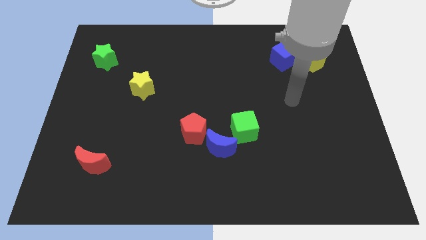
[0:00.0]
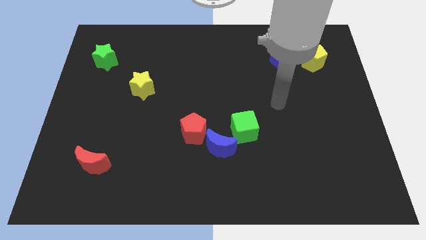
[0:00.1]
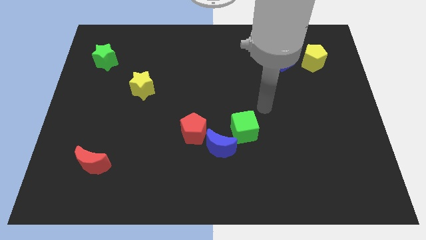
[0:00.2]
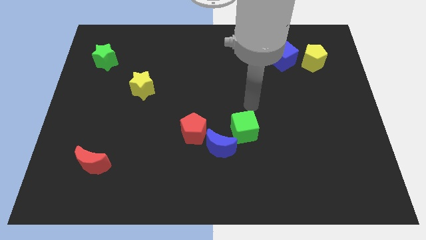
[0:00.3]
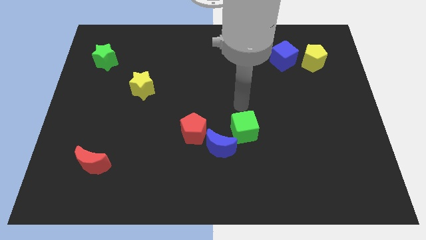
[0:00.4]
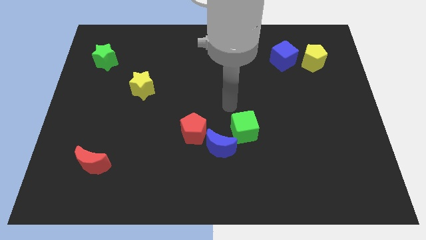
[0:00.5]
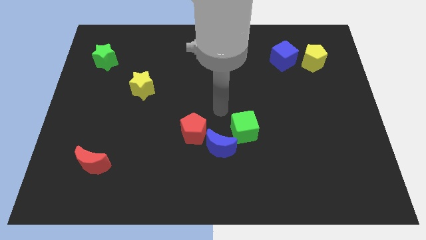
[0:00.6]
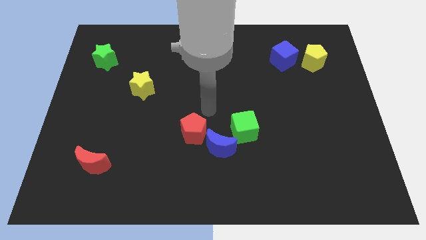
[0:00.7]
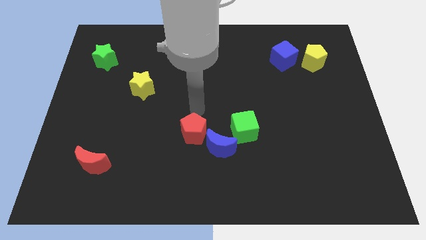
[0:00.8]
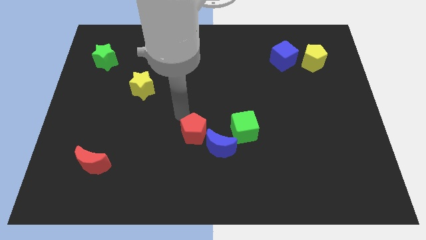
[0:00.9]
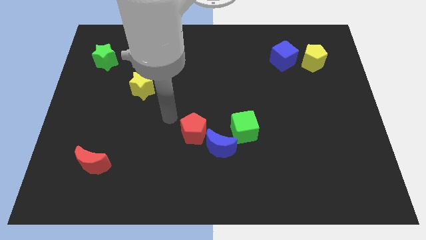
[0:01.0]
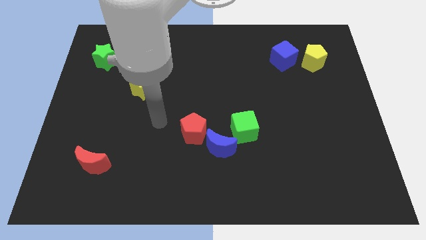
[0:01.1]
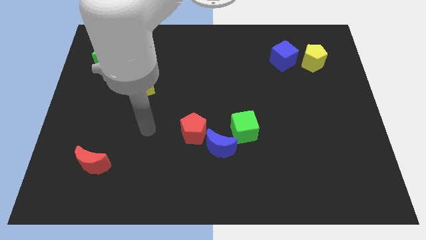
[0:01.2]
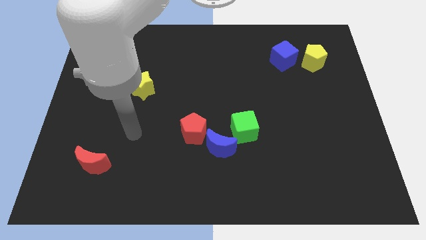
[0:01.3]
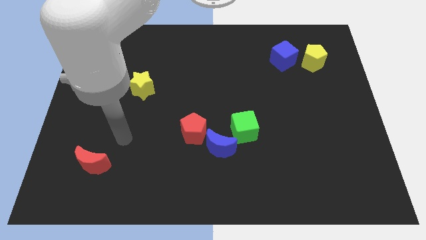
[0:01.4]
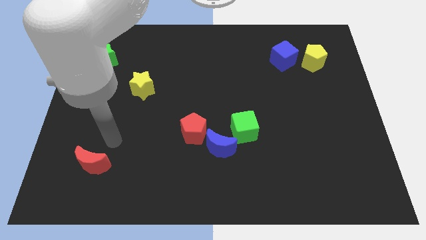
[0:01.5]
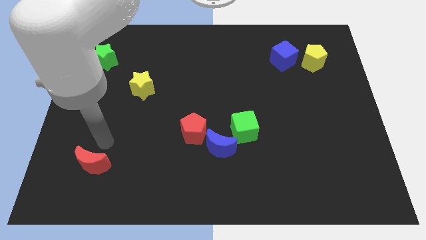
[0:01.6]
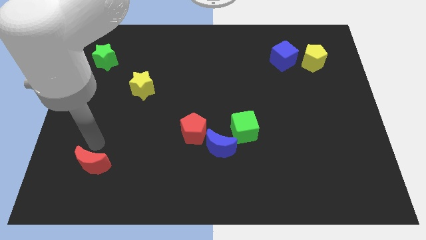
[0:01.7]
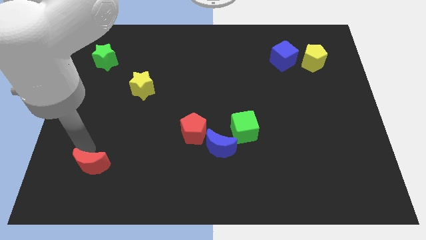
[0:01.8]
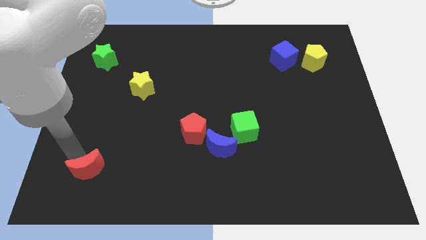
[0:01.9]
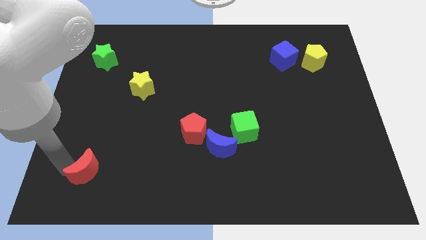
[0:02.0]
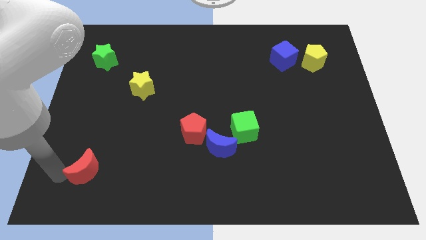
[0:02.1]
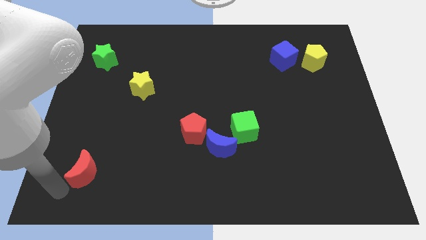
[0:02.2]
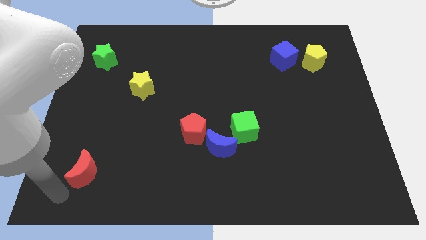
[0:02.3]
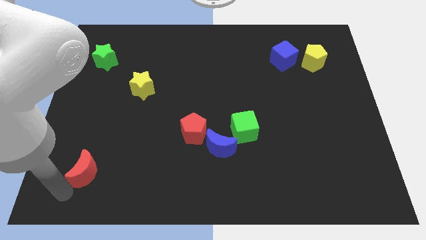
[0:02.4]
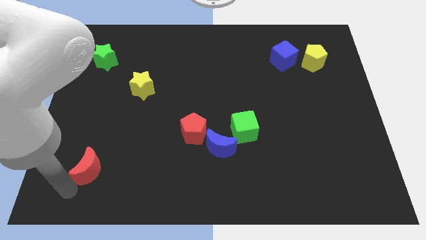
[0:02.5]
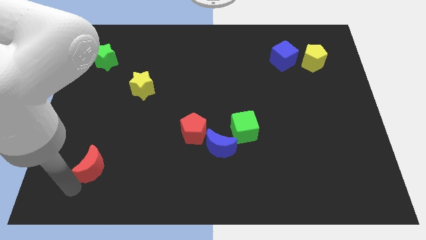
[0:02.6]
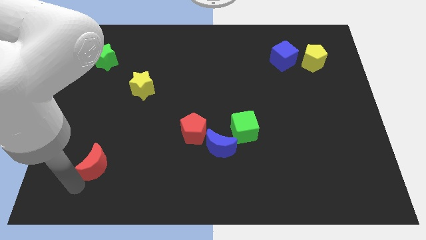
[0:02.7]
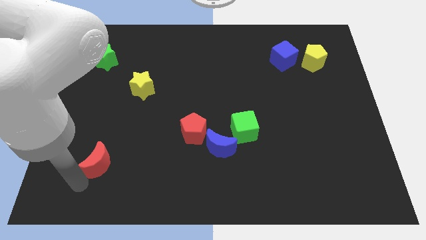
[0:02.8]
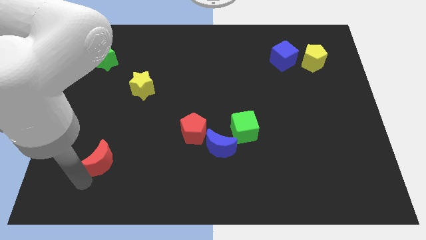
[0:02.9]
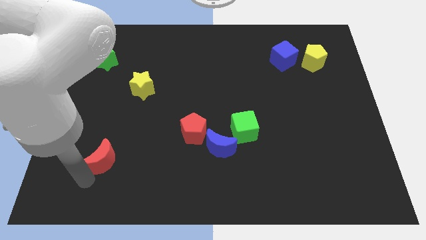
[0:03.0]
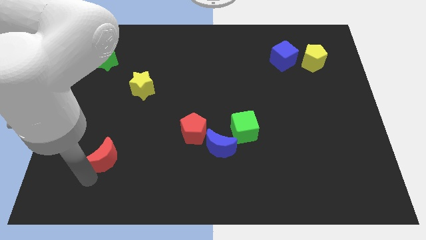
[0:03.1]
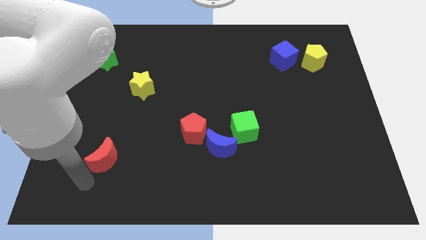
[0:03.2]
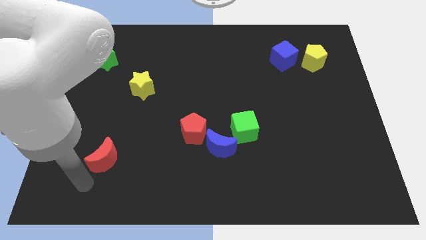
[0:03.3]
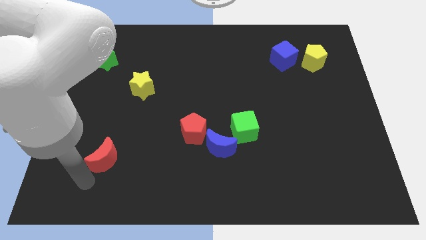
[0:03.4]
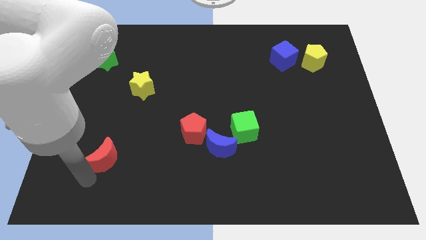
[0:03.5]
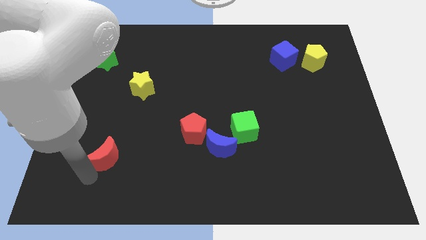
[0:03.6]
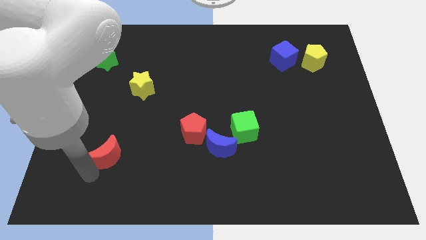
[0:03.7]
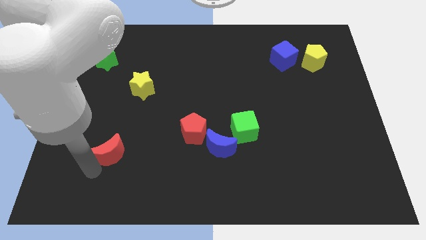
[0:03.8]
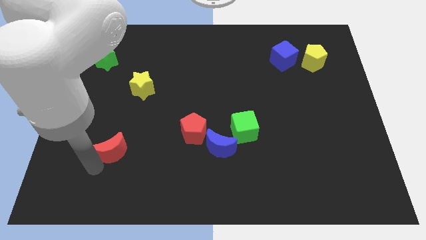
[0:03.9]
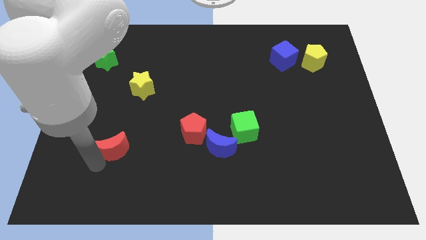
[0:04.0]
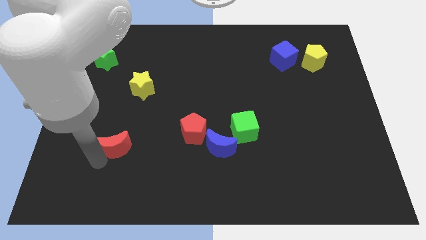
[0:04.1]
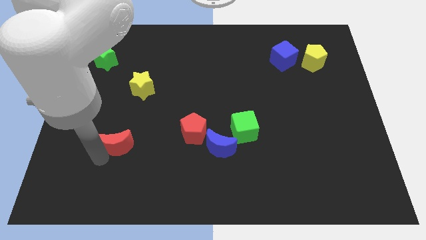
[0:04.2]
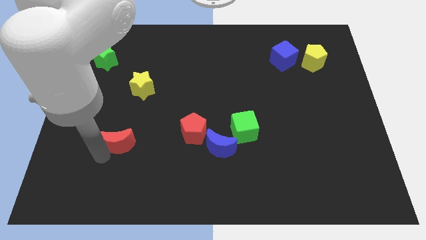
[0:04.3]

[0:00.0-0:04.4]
slightly slide the red moon upwards and then to the right

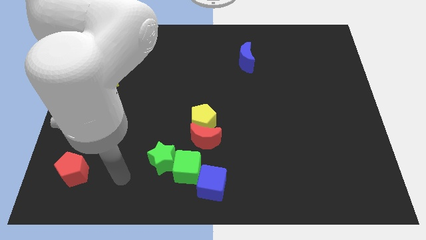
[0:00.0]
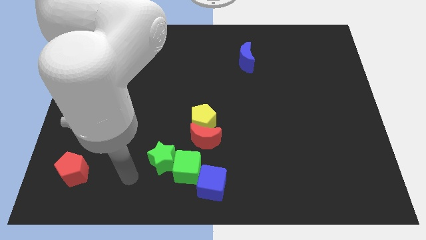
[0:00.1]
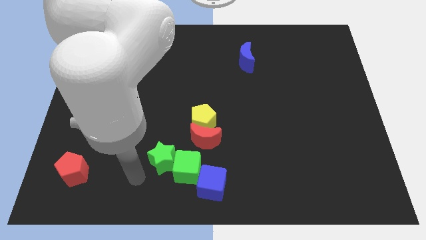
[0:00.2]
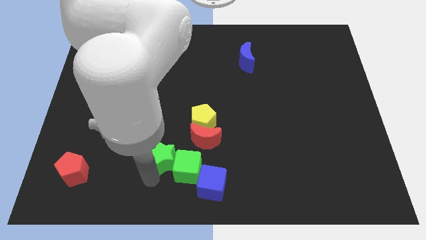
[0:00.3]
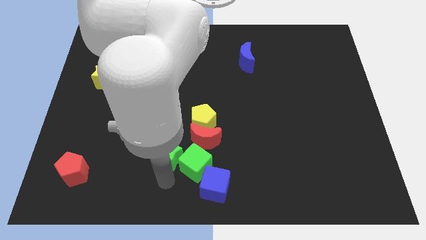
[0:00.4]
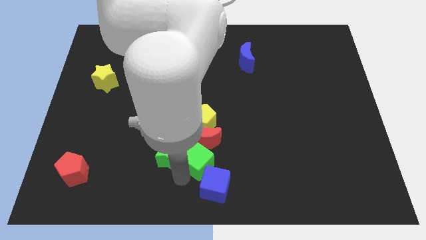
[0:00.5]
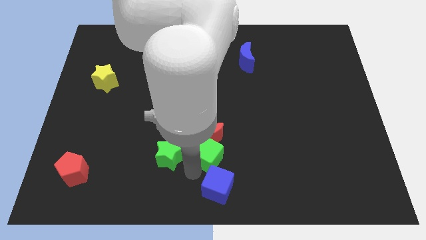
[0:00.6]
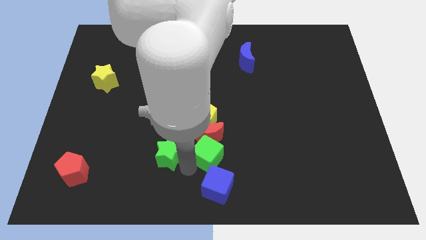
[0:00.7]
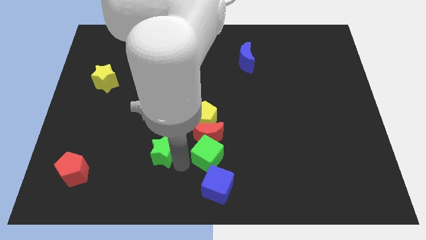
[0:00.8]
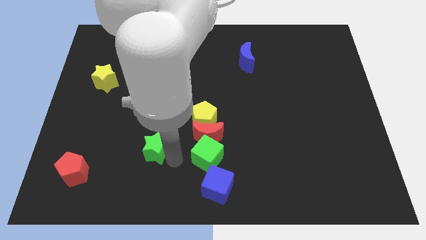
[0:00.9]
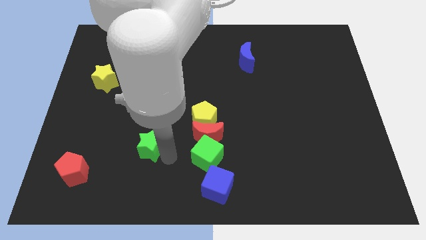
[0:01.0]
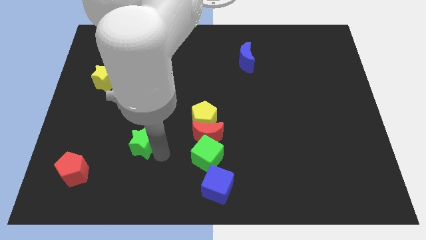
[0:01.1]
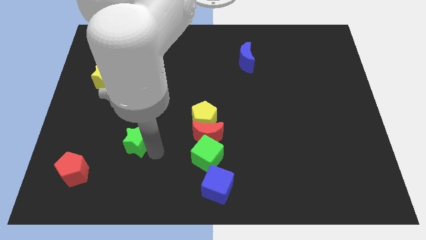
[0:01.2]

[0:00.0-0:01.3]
move the green star upwards and left a little

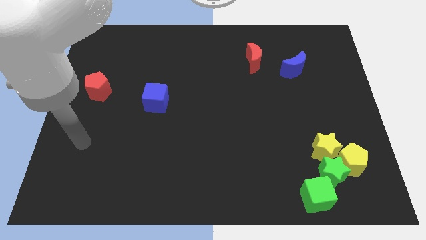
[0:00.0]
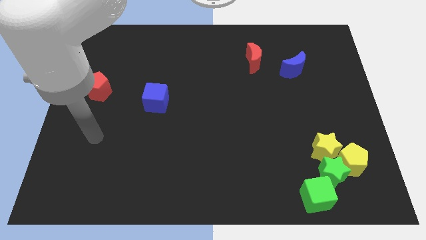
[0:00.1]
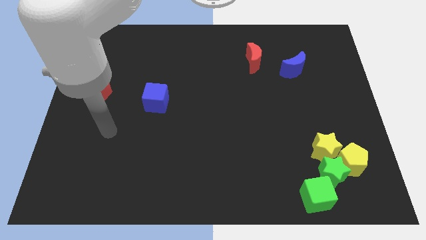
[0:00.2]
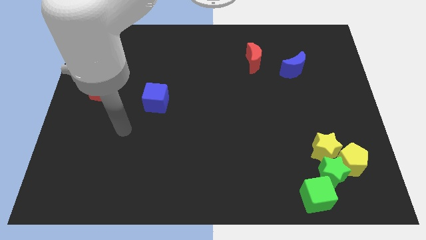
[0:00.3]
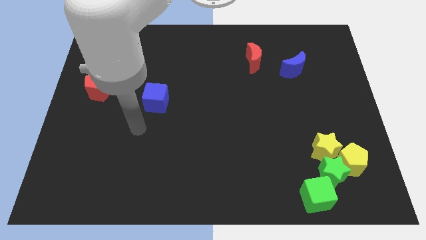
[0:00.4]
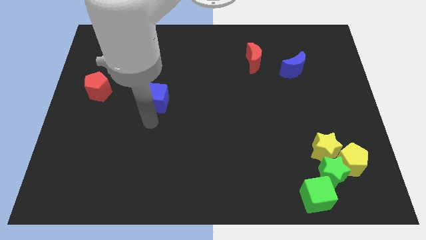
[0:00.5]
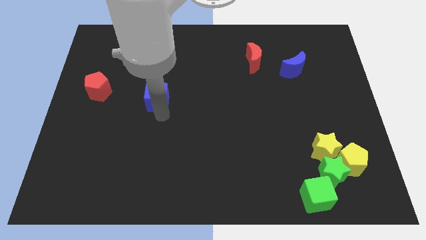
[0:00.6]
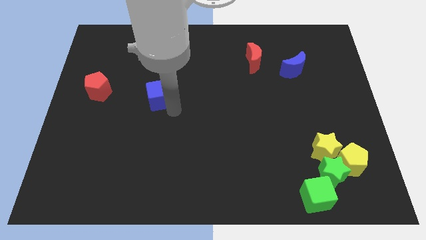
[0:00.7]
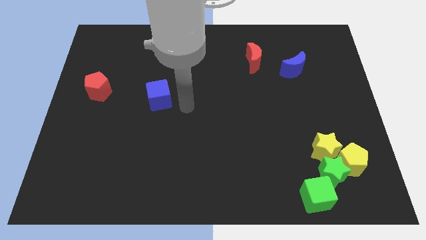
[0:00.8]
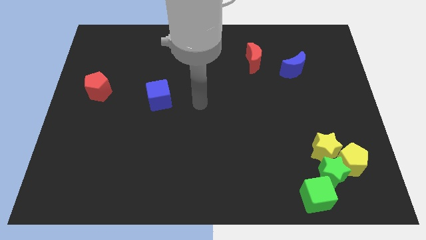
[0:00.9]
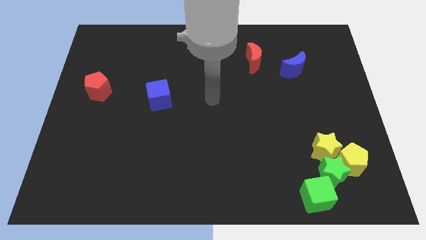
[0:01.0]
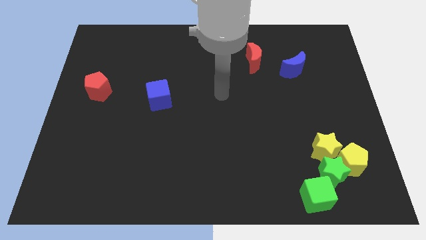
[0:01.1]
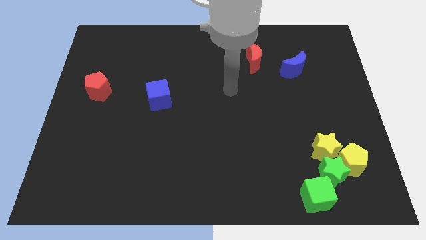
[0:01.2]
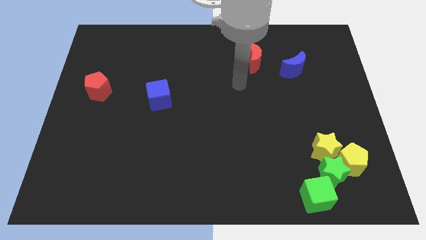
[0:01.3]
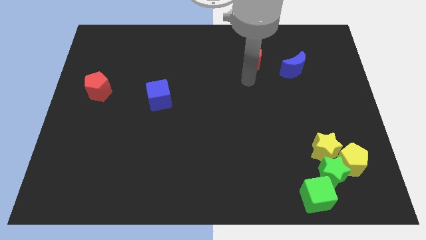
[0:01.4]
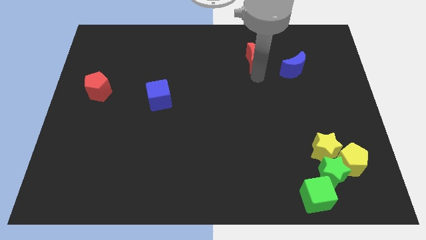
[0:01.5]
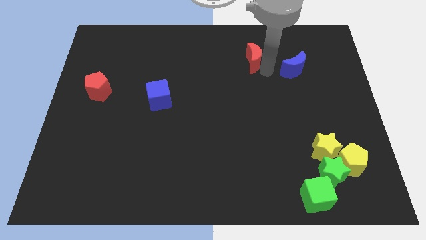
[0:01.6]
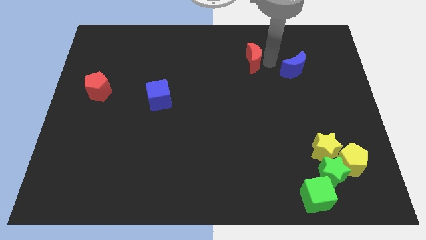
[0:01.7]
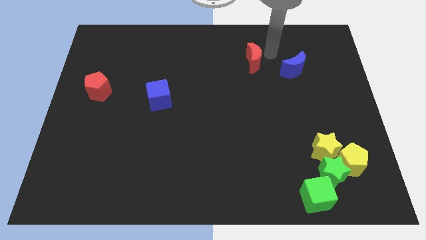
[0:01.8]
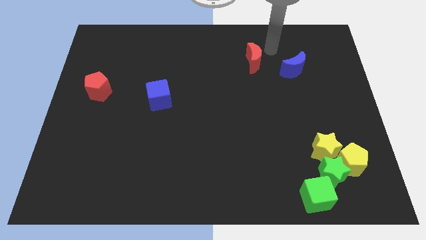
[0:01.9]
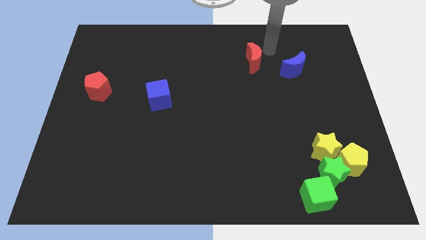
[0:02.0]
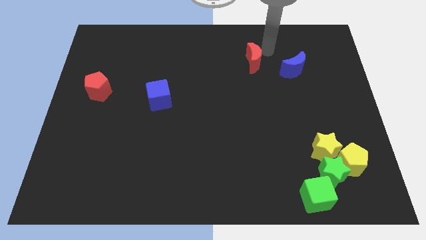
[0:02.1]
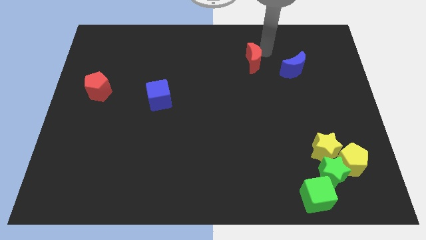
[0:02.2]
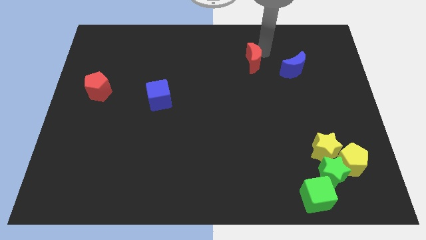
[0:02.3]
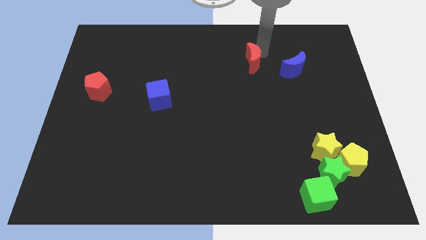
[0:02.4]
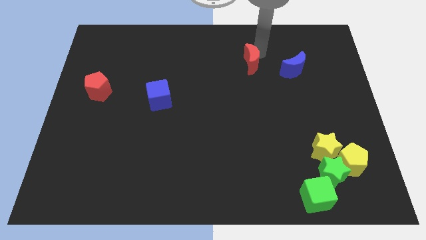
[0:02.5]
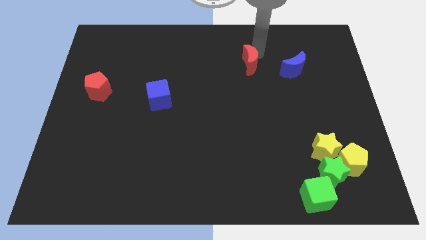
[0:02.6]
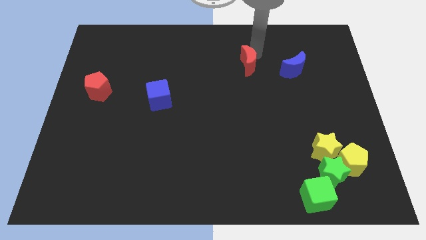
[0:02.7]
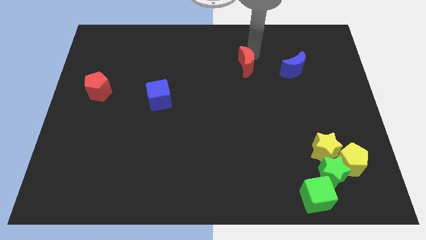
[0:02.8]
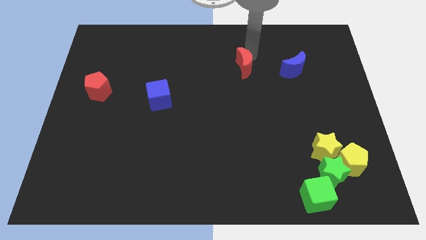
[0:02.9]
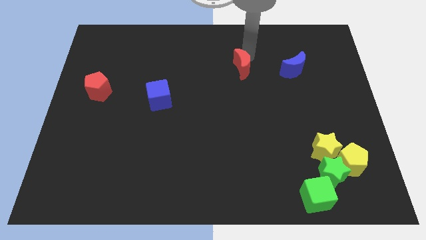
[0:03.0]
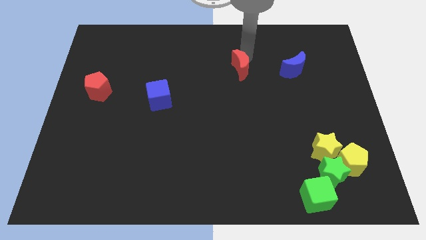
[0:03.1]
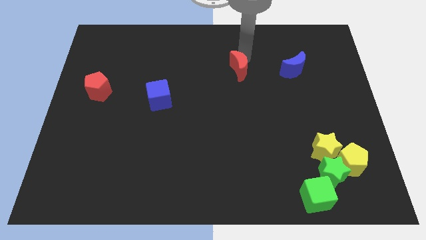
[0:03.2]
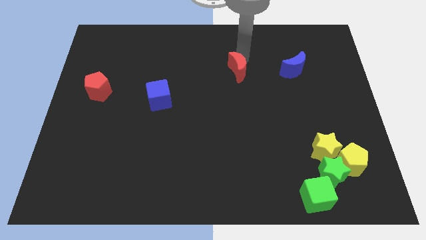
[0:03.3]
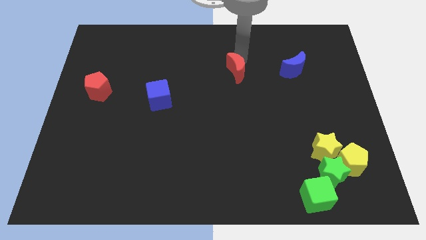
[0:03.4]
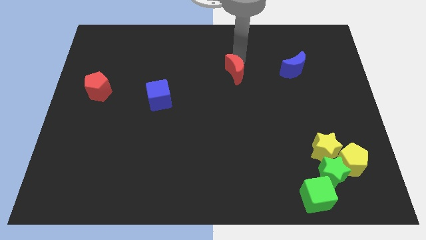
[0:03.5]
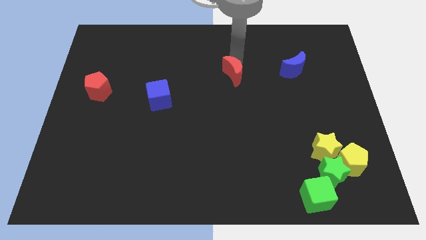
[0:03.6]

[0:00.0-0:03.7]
slide the red moon down and then left a bit
